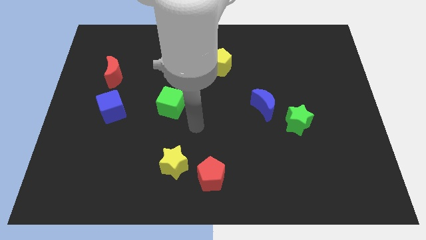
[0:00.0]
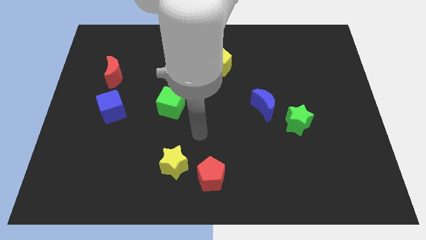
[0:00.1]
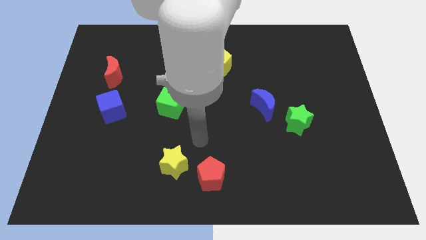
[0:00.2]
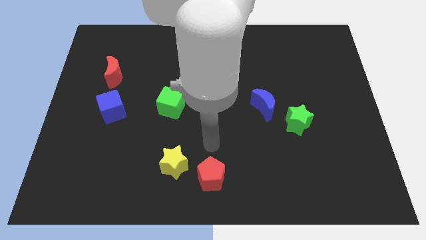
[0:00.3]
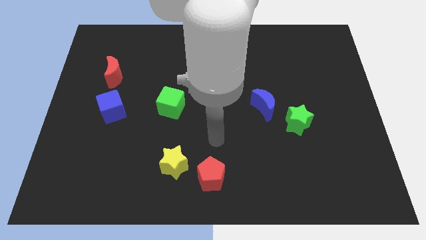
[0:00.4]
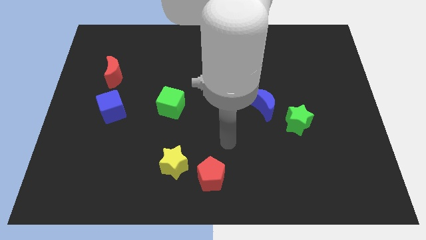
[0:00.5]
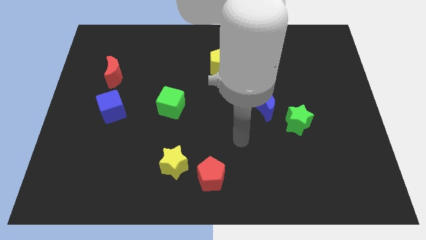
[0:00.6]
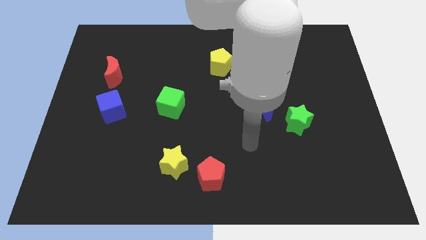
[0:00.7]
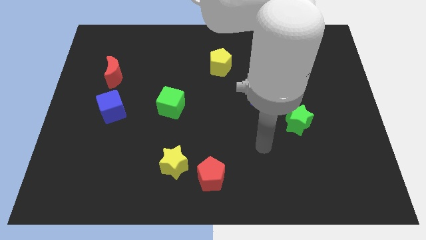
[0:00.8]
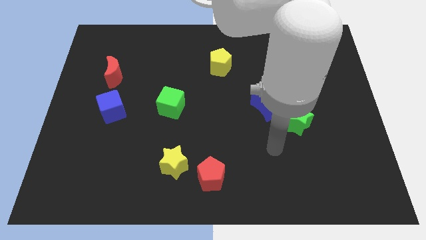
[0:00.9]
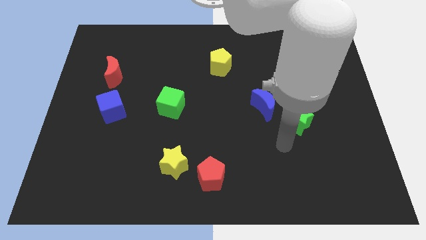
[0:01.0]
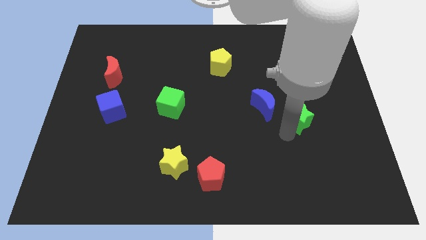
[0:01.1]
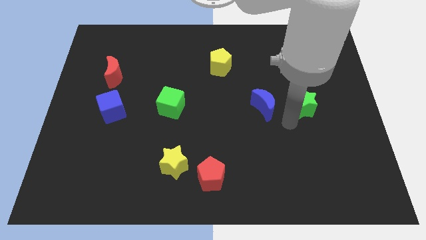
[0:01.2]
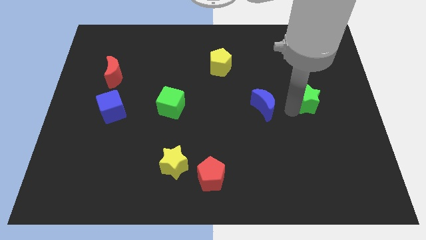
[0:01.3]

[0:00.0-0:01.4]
pull the blue moon apart from the green star

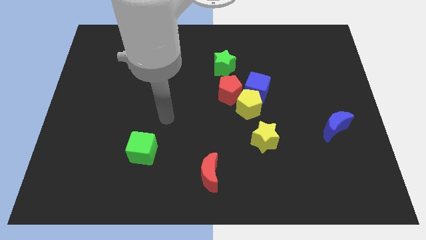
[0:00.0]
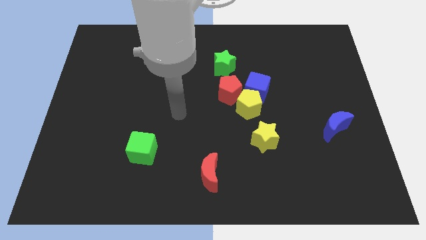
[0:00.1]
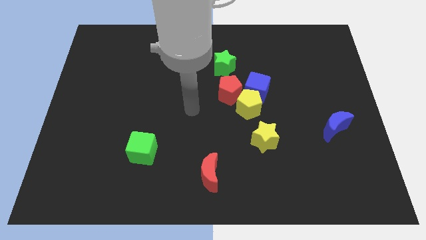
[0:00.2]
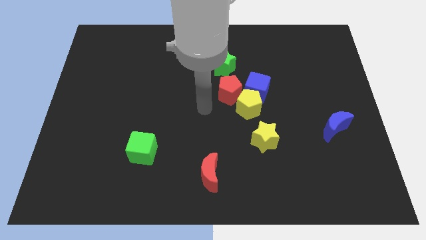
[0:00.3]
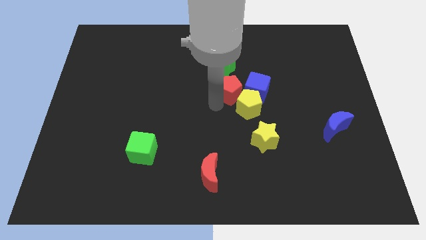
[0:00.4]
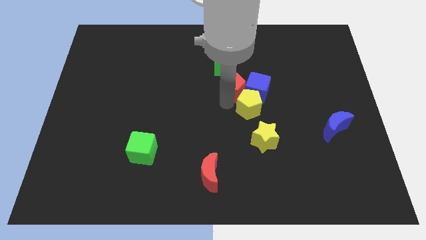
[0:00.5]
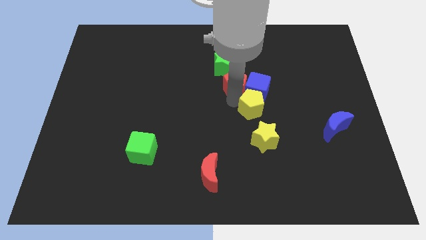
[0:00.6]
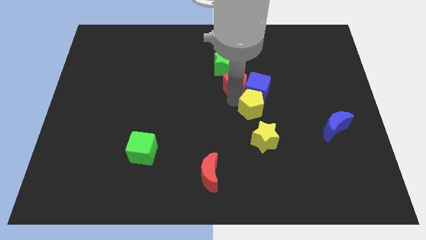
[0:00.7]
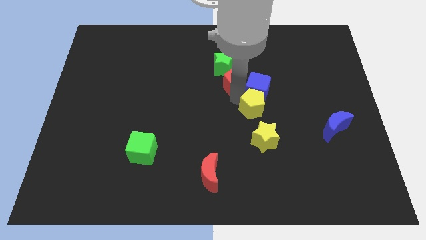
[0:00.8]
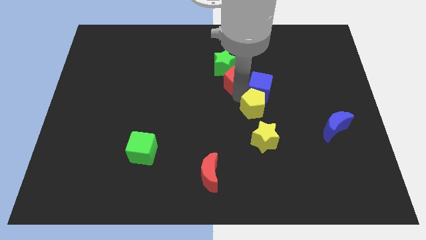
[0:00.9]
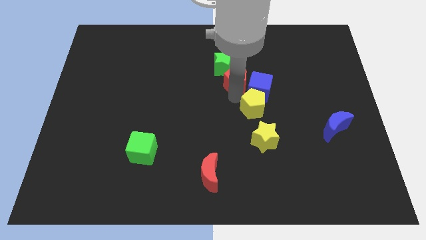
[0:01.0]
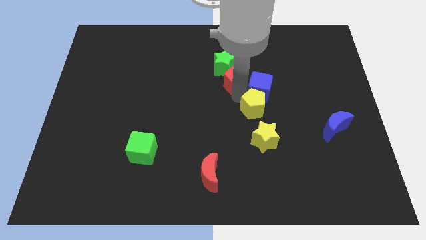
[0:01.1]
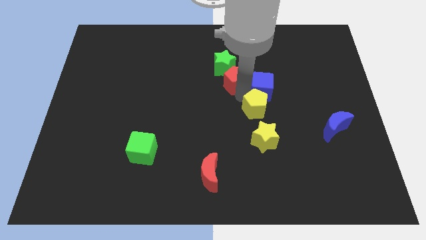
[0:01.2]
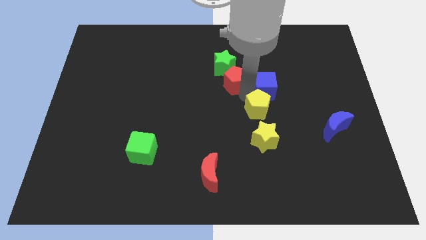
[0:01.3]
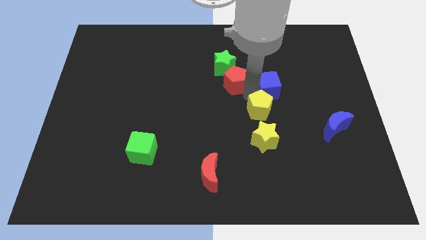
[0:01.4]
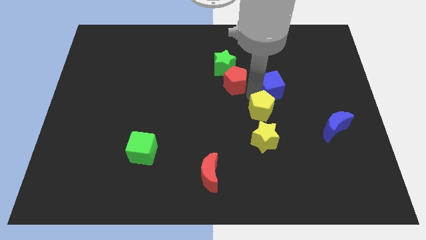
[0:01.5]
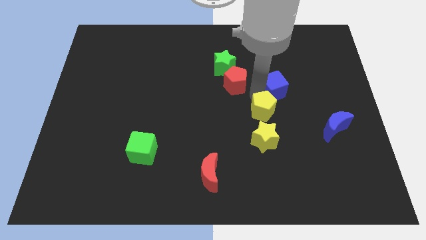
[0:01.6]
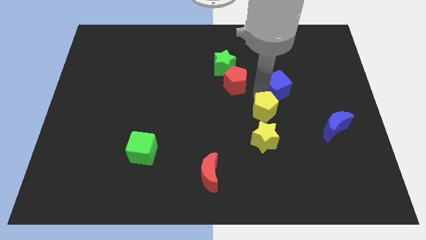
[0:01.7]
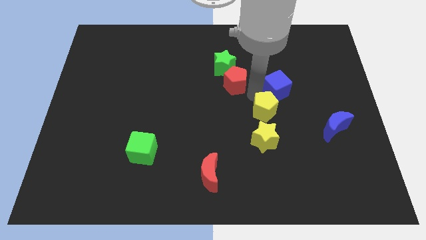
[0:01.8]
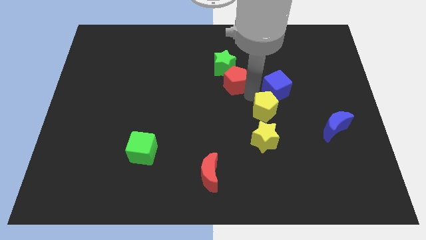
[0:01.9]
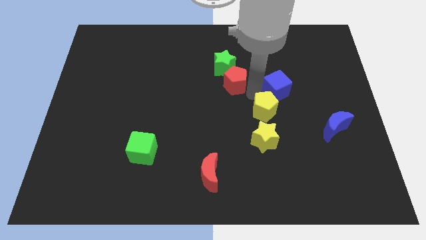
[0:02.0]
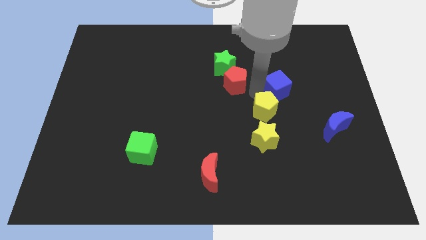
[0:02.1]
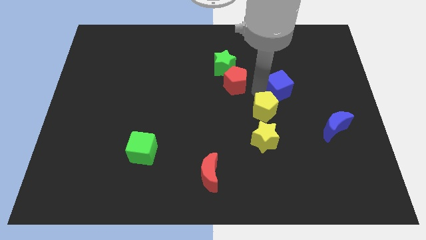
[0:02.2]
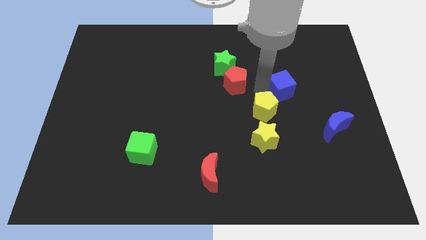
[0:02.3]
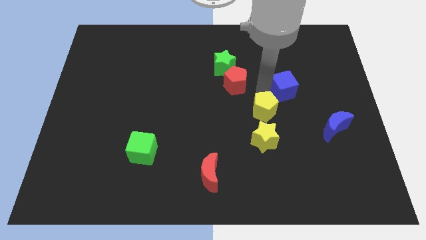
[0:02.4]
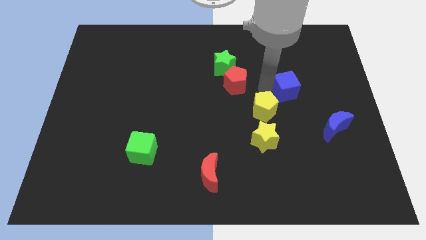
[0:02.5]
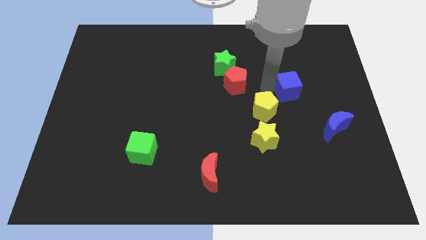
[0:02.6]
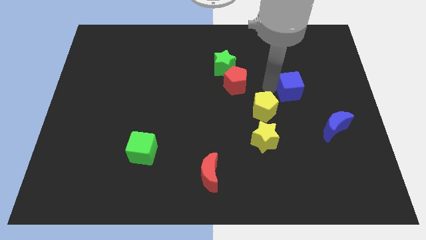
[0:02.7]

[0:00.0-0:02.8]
pull the blue cube apart from the yellow pentagon and red pentagon

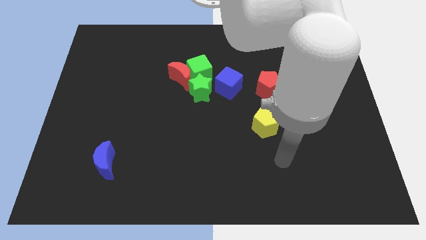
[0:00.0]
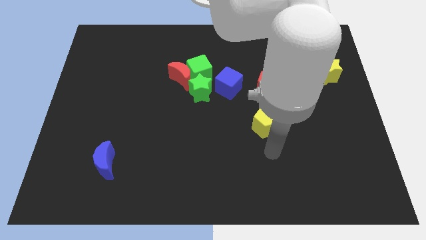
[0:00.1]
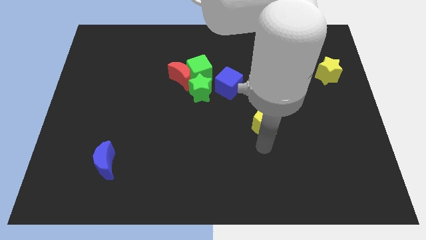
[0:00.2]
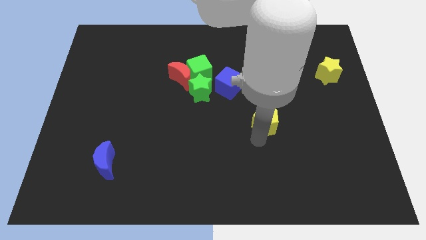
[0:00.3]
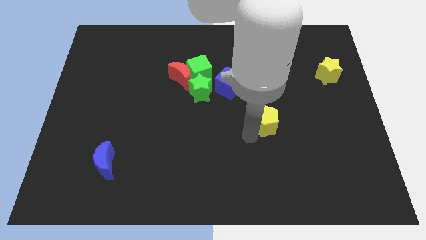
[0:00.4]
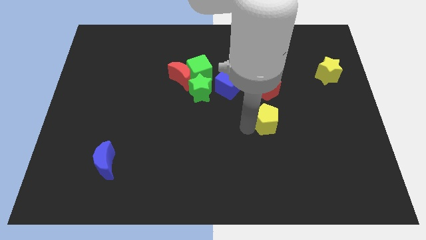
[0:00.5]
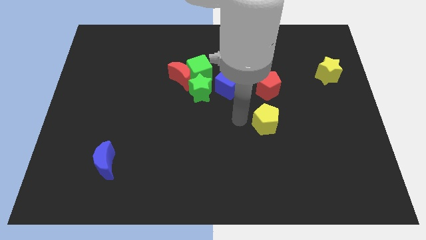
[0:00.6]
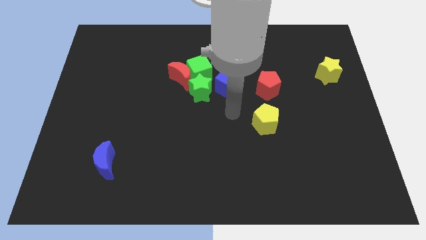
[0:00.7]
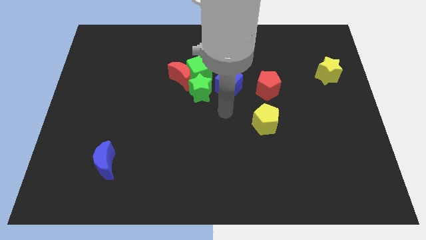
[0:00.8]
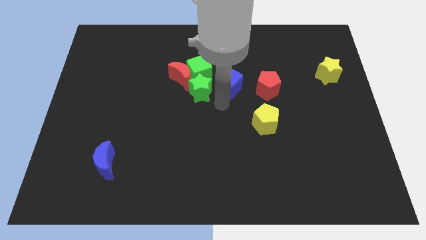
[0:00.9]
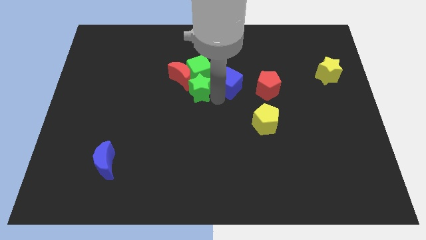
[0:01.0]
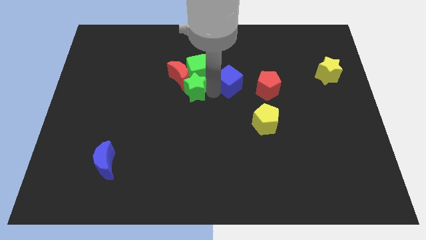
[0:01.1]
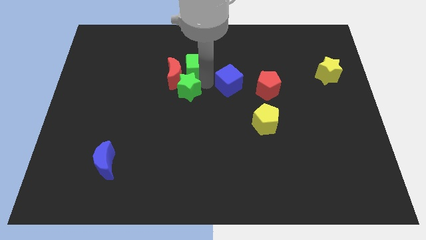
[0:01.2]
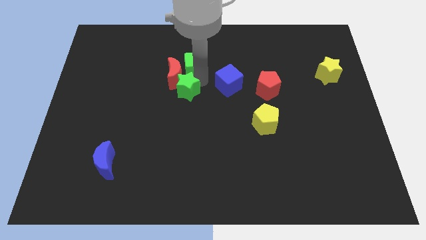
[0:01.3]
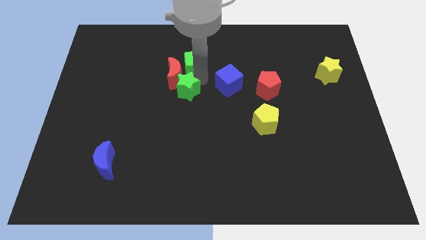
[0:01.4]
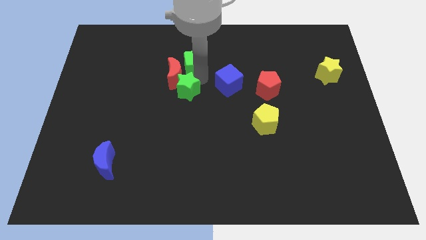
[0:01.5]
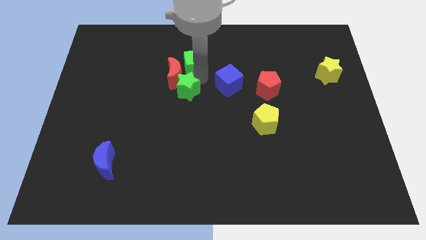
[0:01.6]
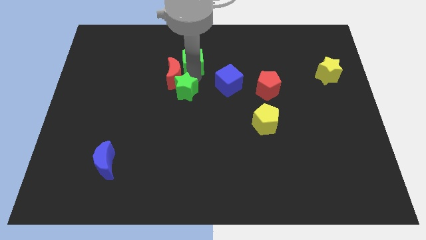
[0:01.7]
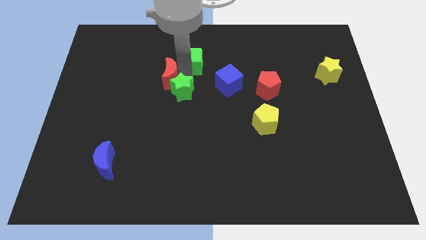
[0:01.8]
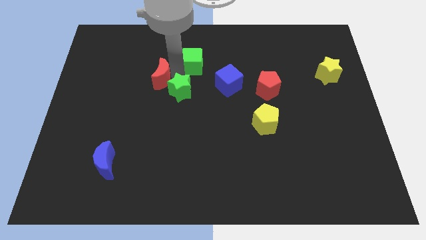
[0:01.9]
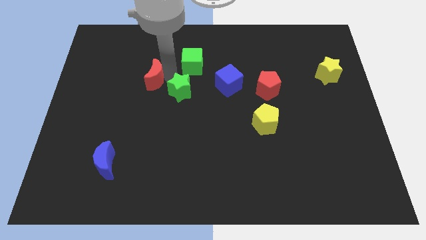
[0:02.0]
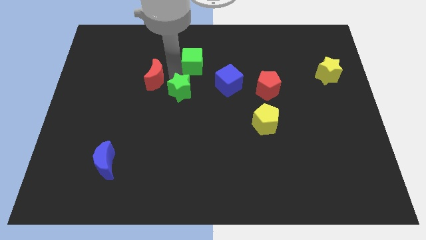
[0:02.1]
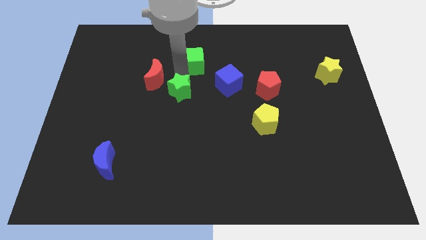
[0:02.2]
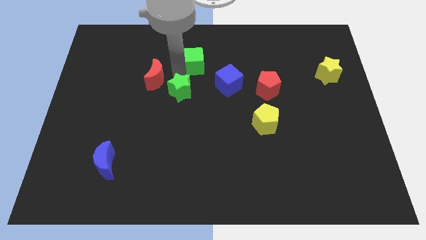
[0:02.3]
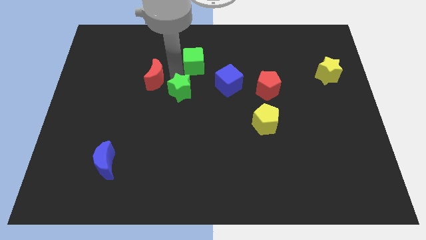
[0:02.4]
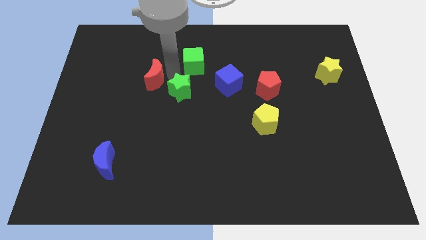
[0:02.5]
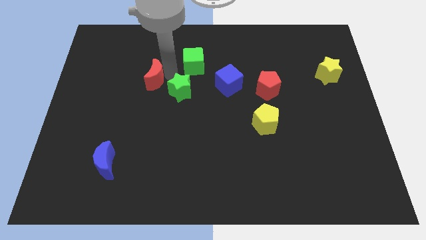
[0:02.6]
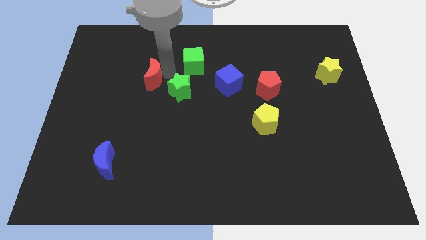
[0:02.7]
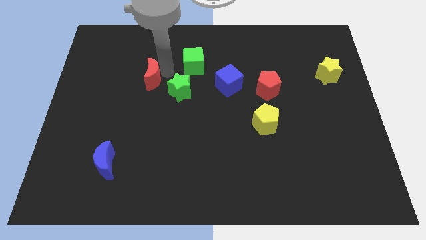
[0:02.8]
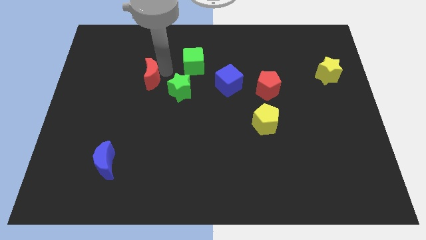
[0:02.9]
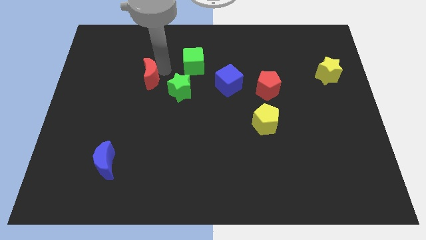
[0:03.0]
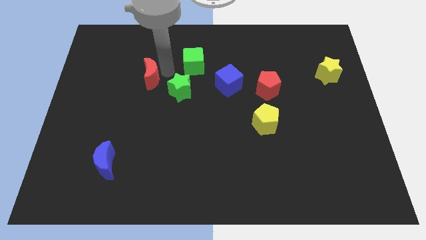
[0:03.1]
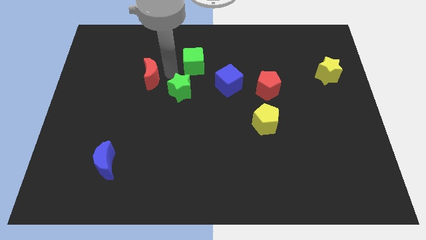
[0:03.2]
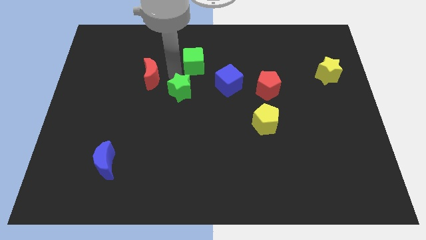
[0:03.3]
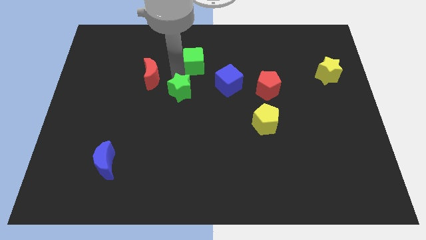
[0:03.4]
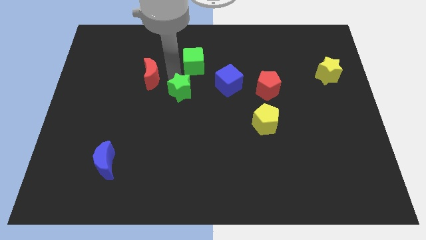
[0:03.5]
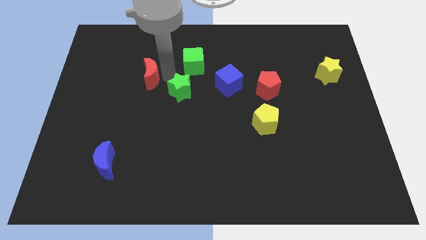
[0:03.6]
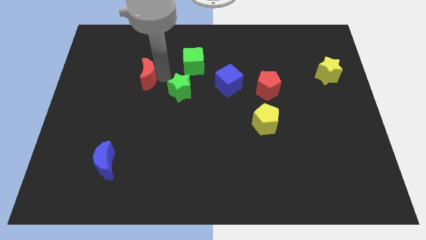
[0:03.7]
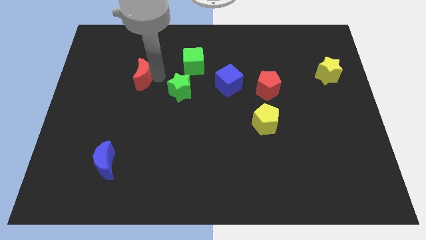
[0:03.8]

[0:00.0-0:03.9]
pull the red moon apart from the green cube and green star

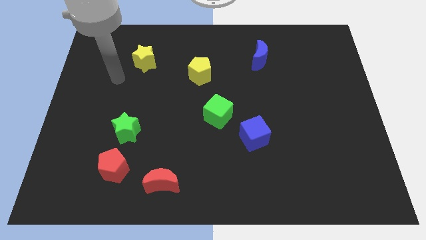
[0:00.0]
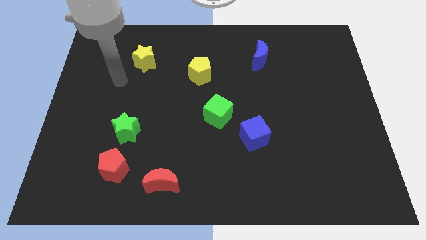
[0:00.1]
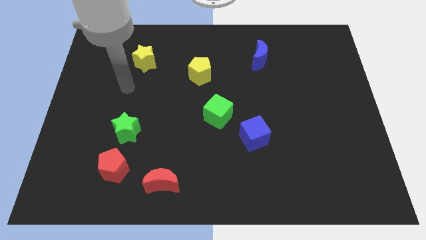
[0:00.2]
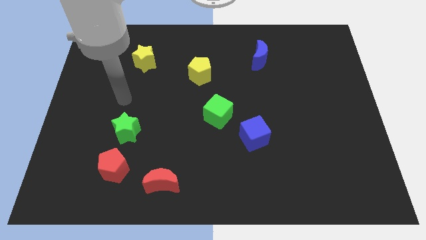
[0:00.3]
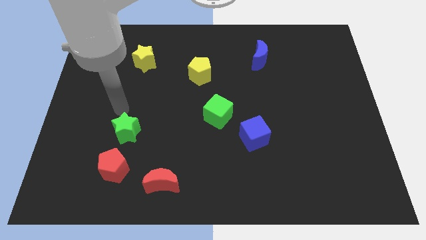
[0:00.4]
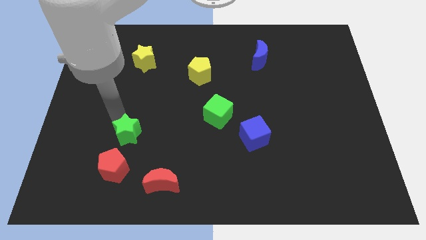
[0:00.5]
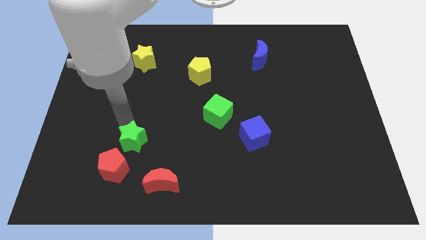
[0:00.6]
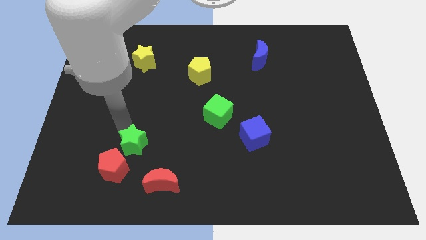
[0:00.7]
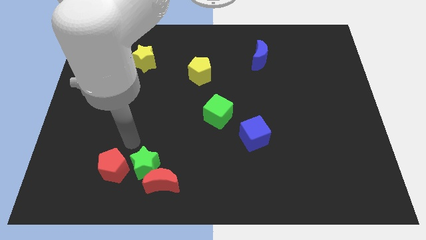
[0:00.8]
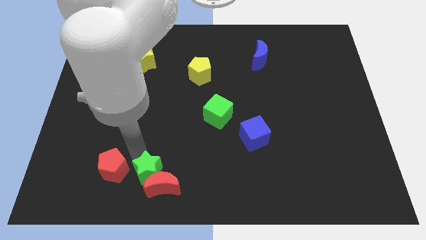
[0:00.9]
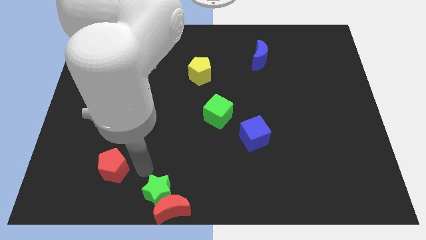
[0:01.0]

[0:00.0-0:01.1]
move the red pentagon away from the green star

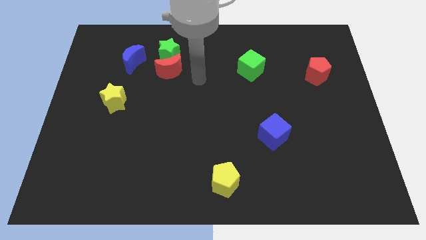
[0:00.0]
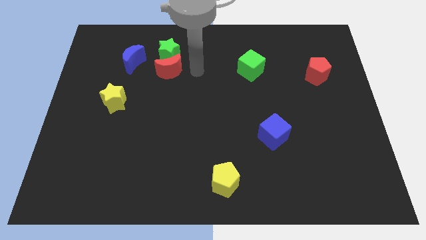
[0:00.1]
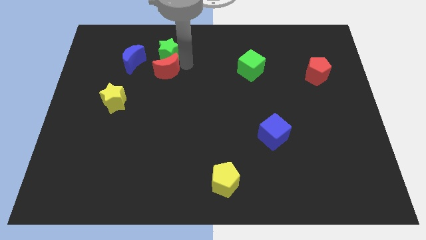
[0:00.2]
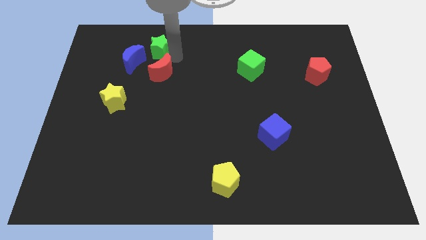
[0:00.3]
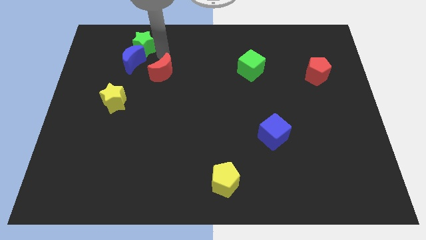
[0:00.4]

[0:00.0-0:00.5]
pull the red moon apart from the green star
